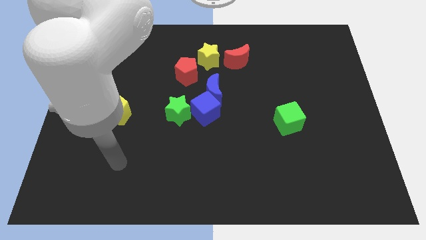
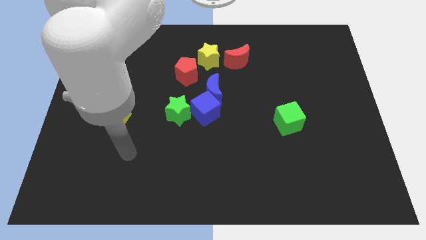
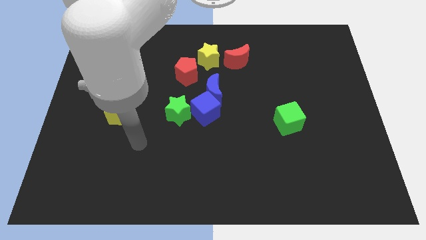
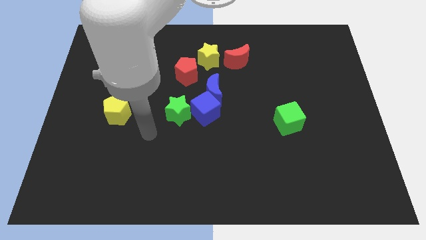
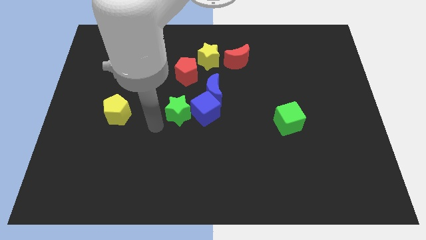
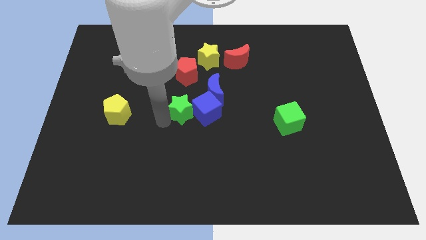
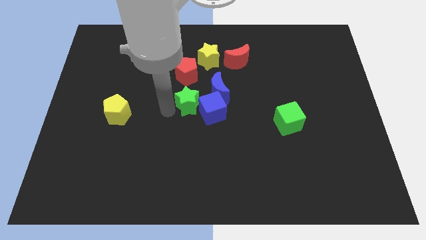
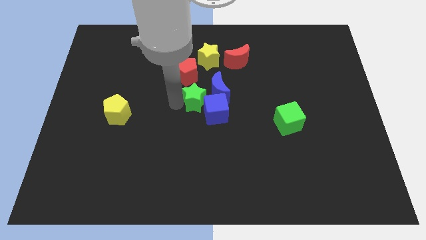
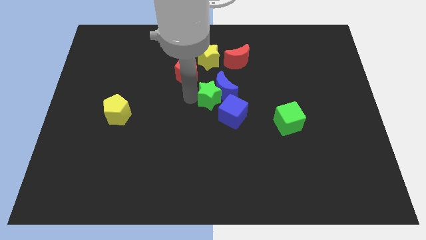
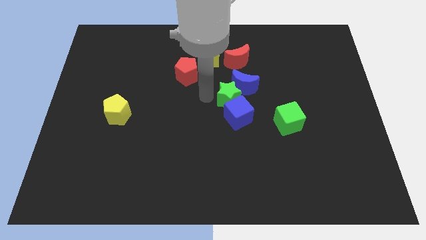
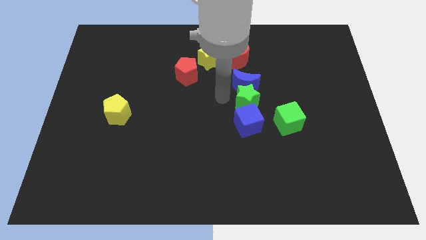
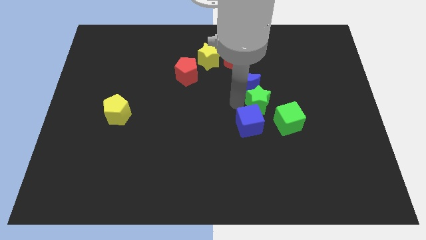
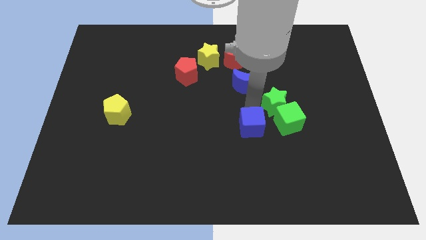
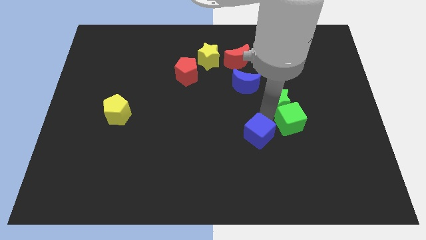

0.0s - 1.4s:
separate the blue cube from the blue moon and green star

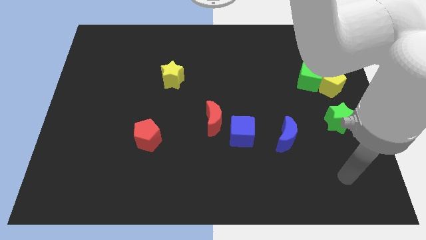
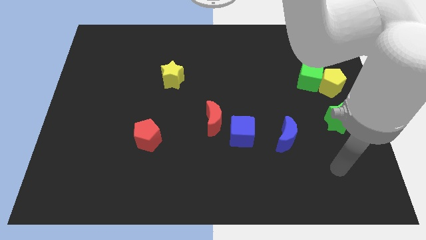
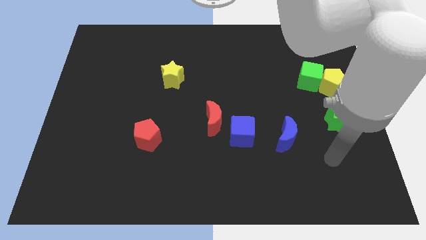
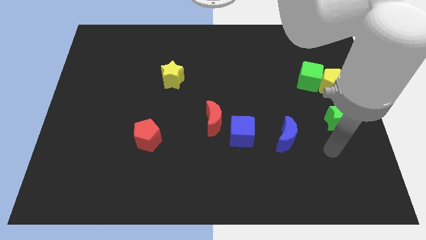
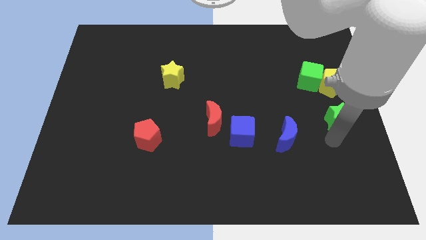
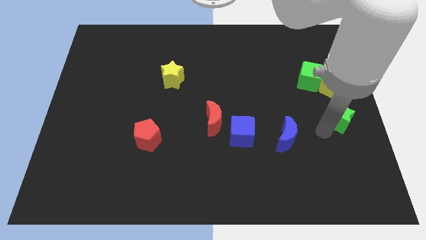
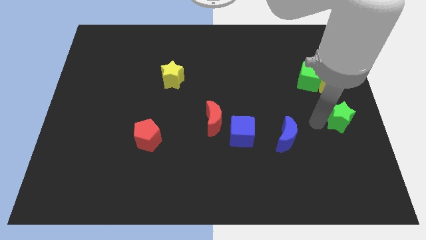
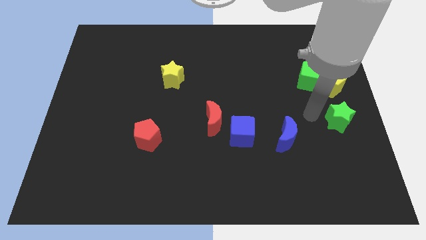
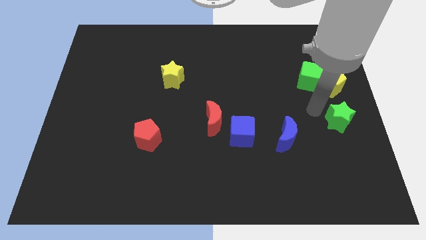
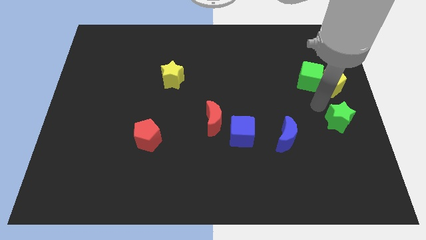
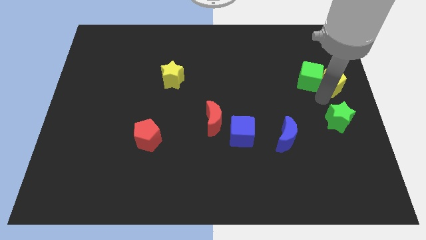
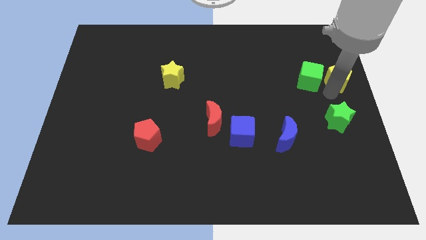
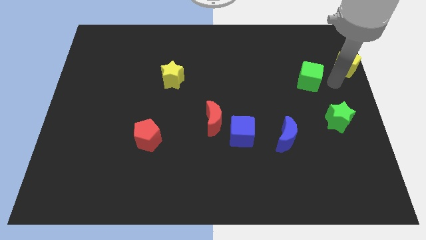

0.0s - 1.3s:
move the green cube away from the yellow pentagon

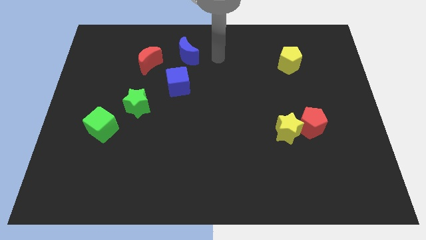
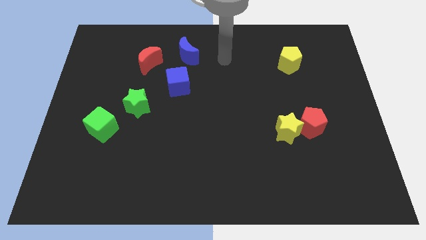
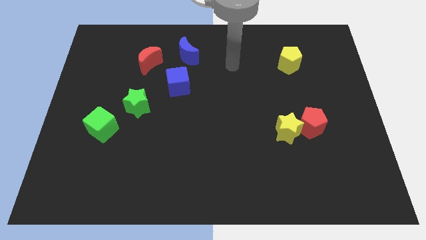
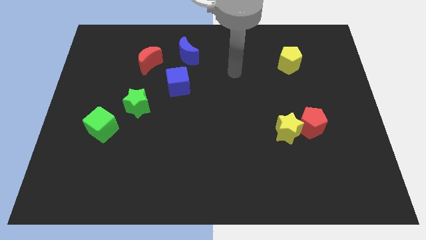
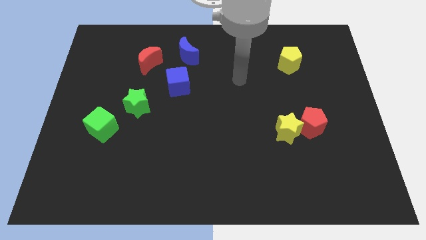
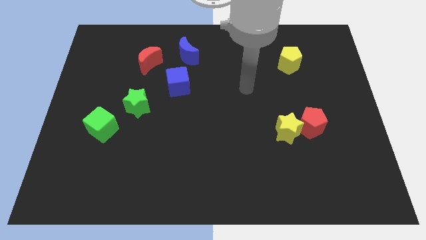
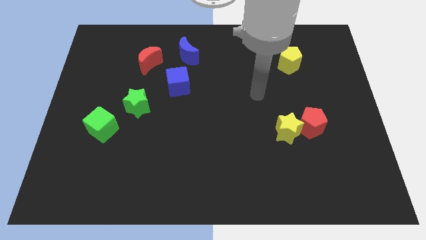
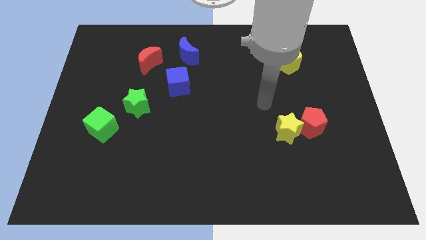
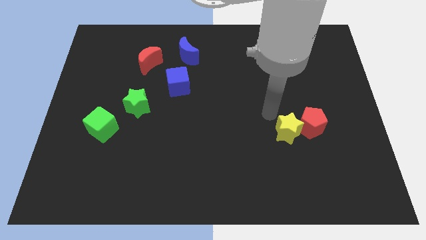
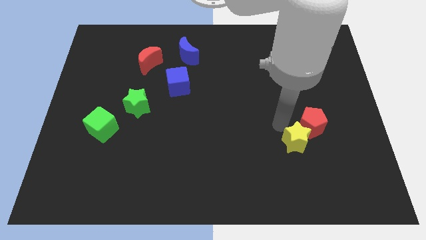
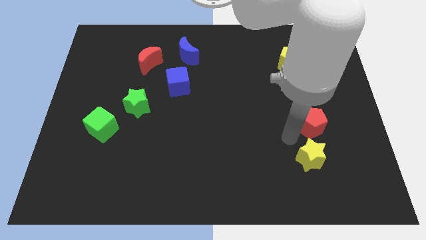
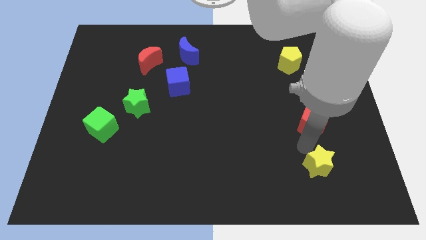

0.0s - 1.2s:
move the red pentagon away from the yellow star

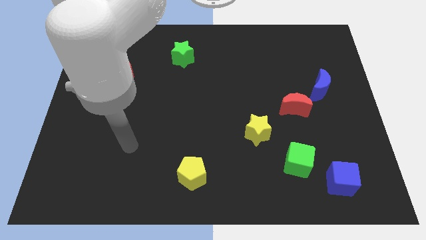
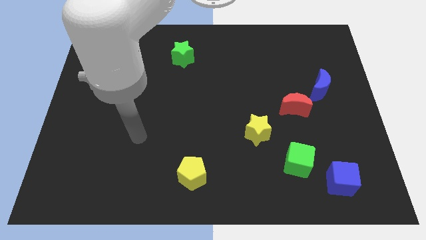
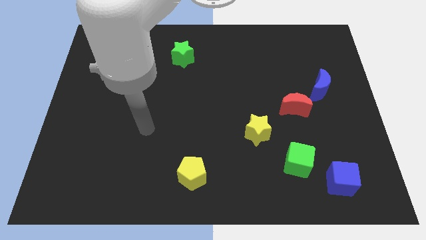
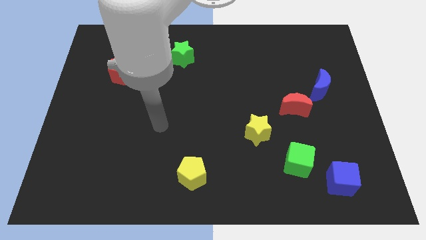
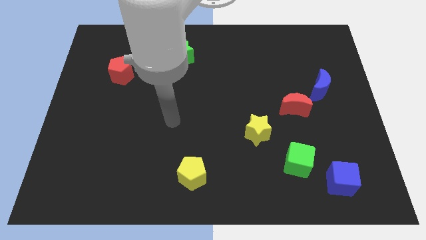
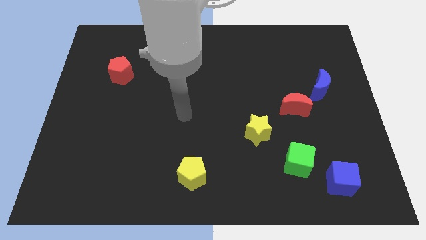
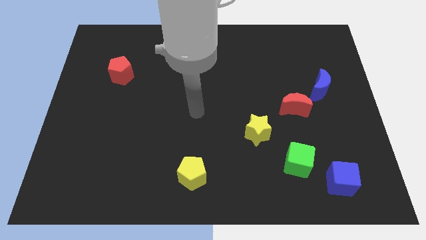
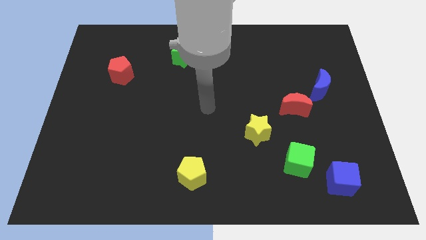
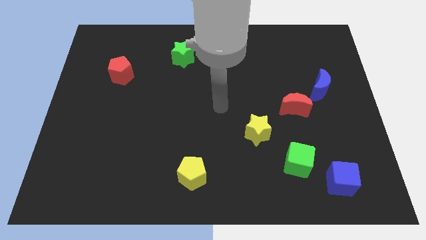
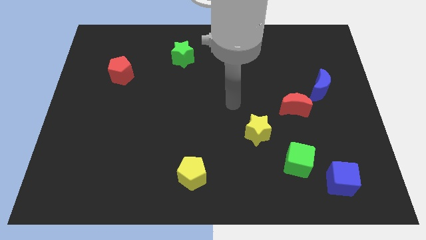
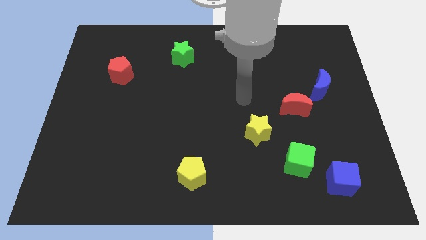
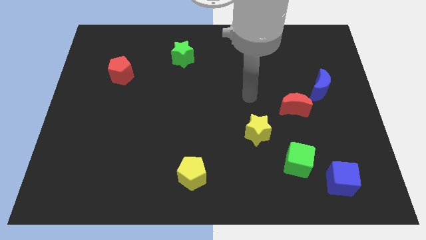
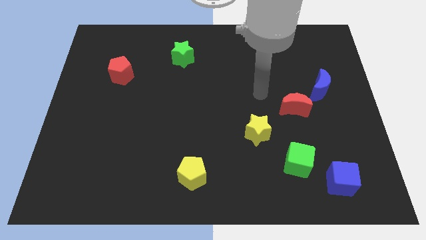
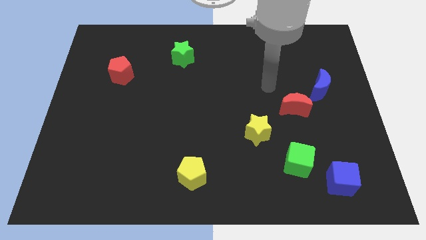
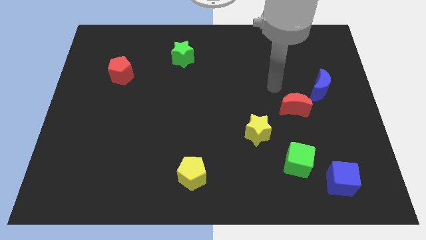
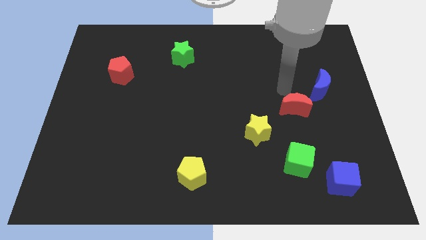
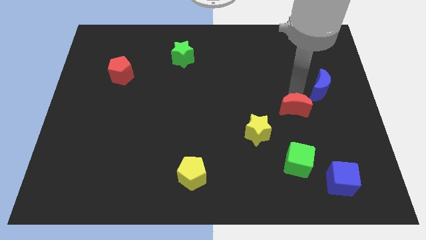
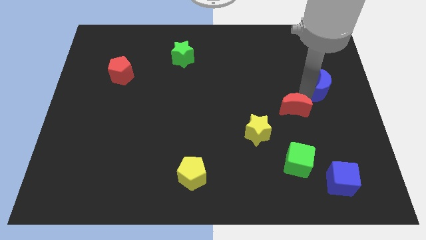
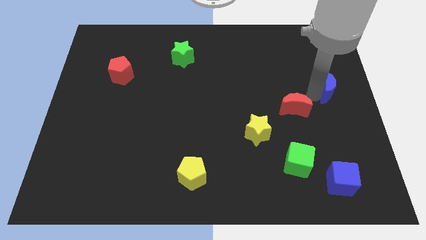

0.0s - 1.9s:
separate the red moon from the blue moon

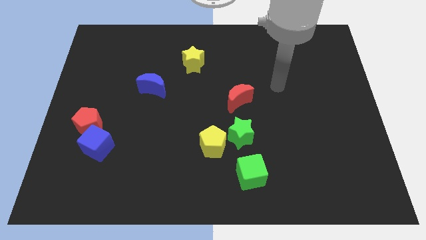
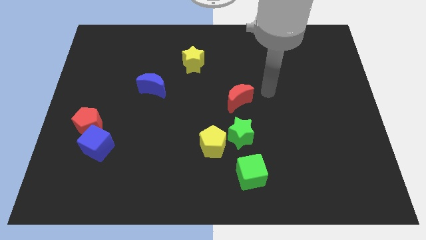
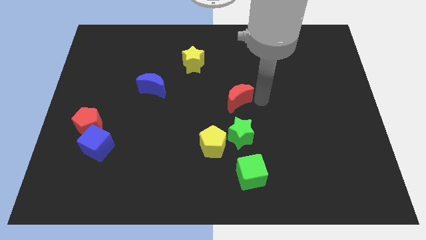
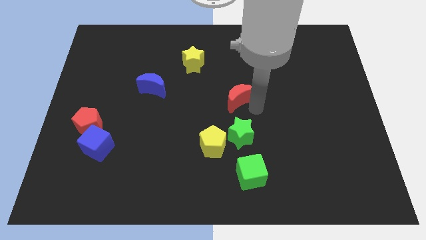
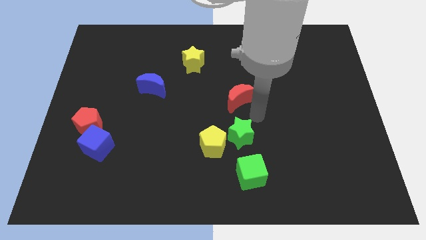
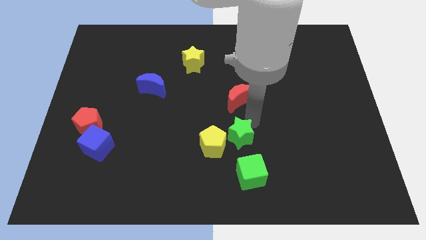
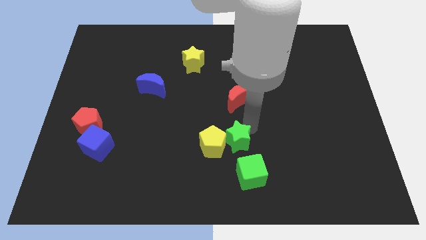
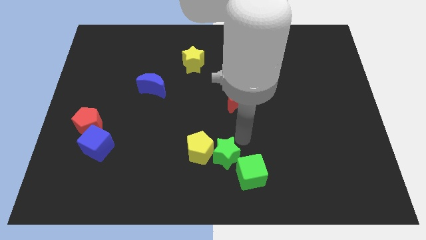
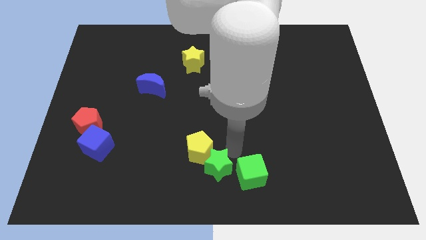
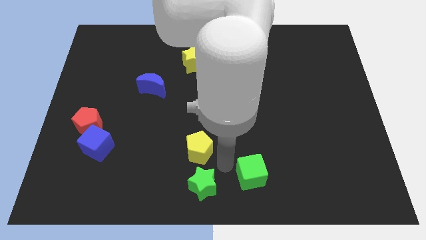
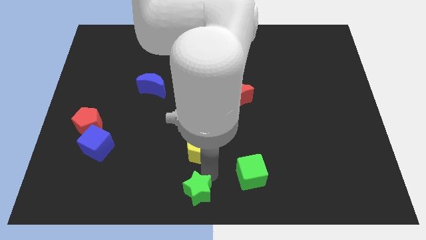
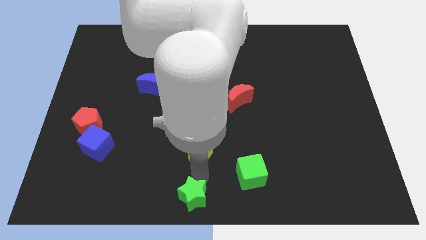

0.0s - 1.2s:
pull the yellow pentagon apart from the green star

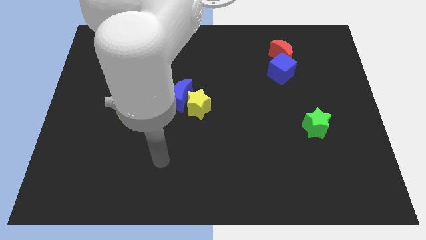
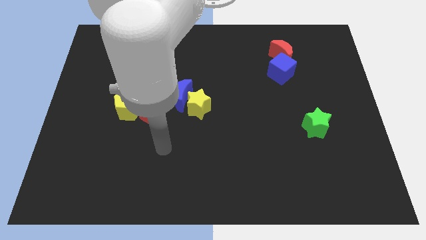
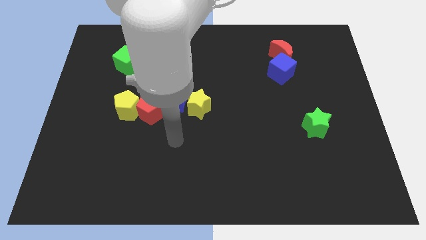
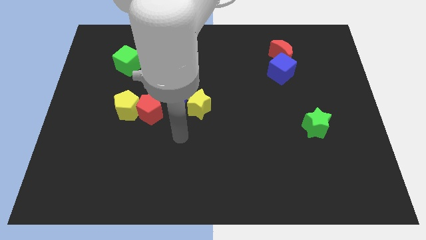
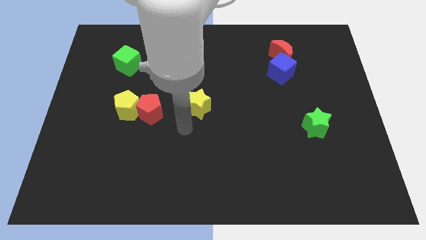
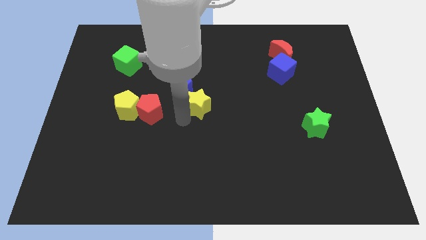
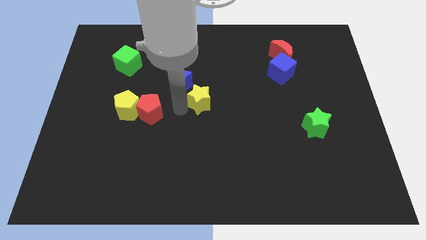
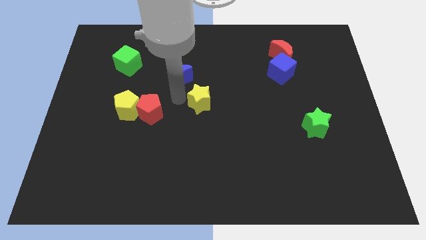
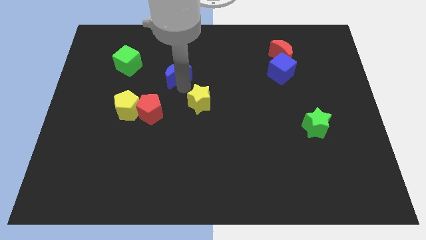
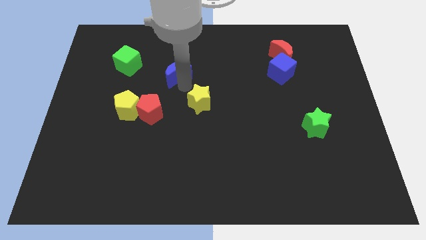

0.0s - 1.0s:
move the yellow star away from the blue moon

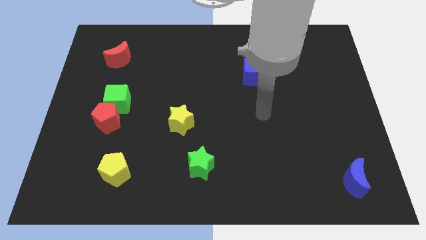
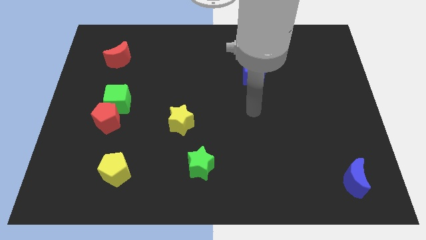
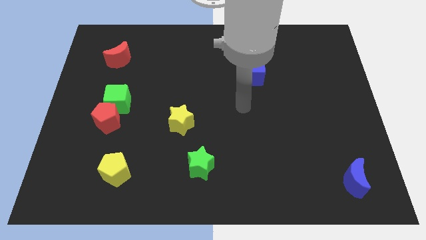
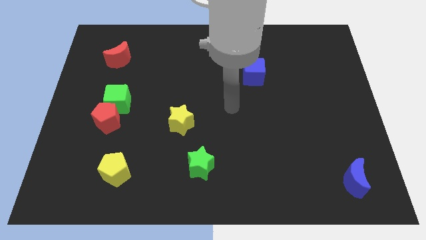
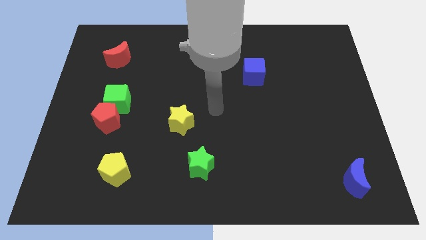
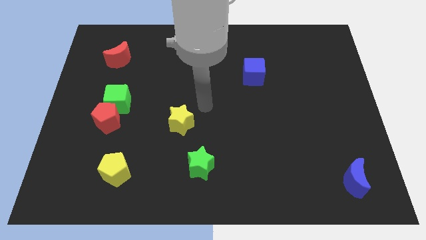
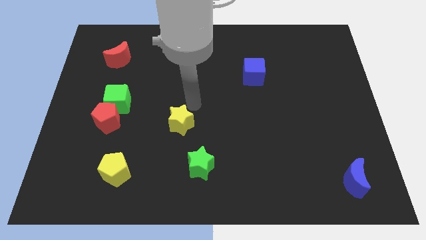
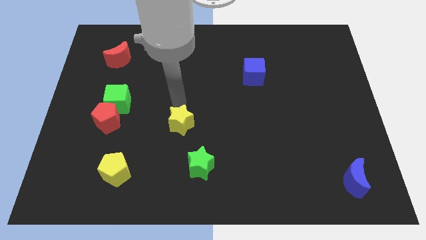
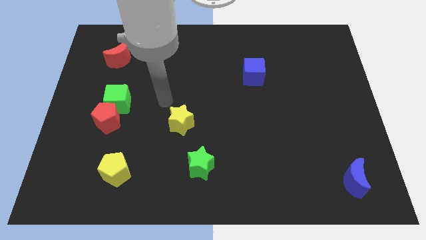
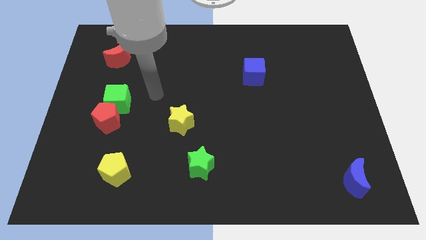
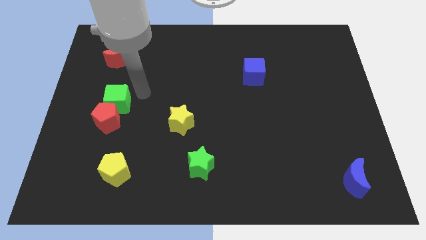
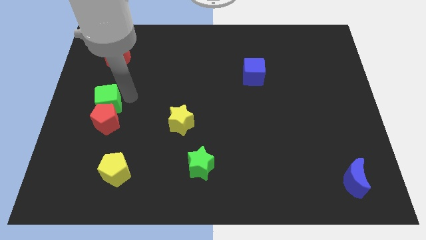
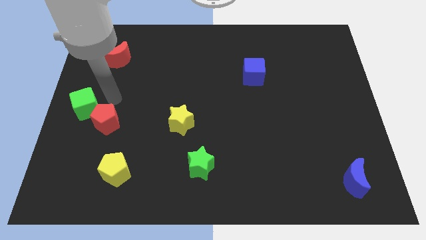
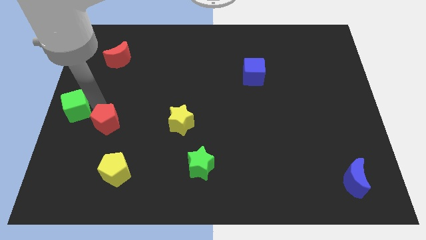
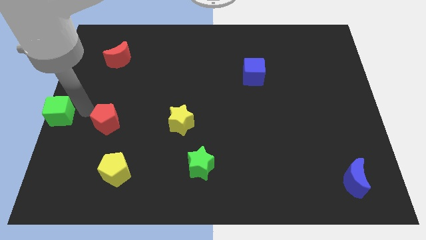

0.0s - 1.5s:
pull the red pentagon apart from the green cube

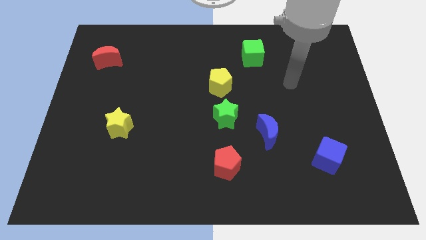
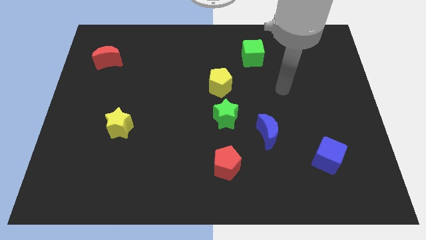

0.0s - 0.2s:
pull the green star apart from the yellow pentagon
